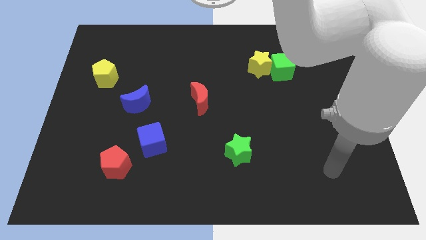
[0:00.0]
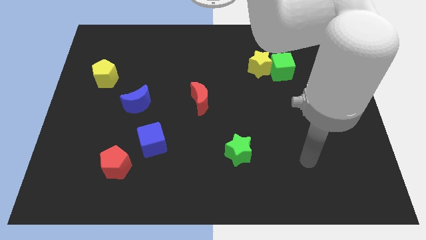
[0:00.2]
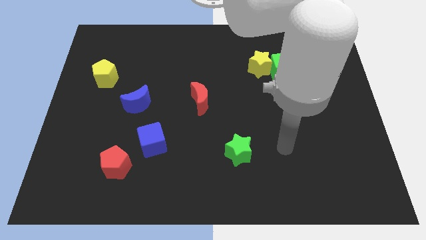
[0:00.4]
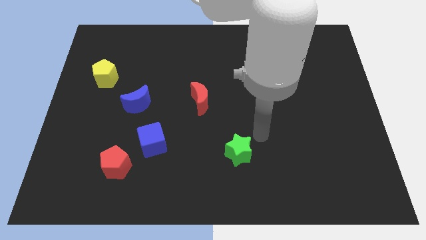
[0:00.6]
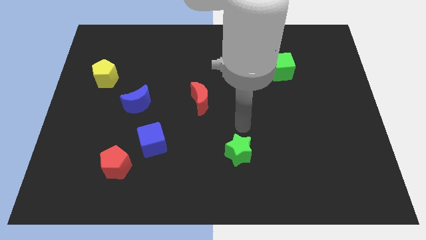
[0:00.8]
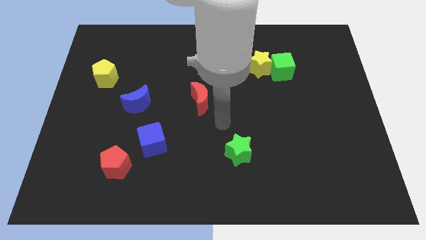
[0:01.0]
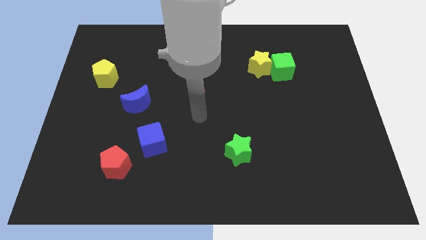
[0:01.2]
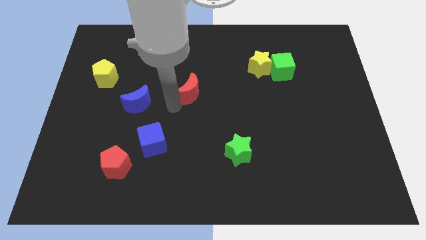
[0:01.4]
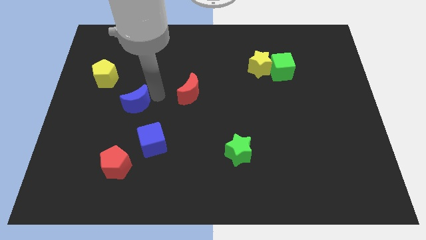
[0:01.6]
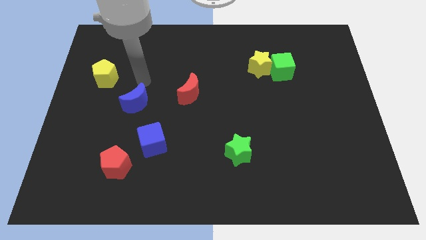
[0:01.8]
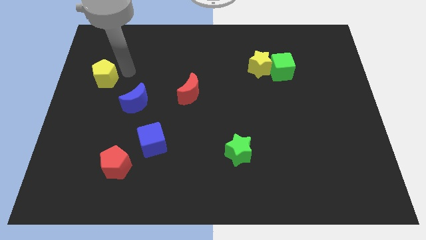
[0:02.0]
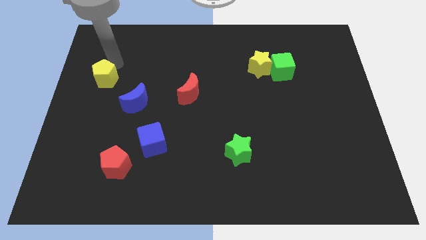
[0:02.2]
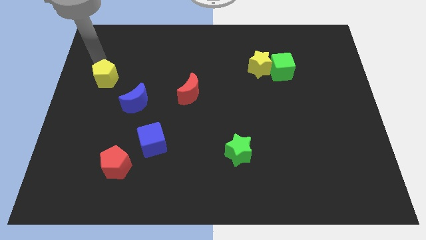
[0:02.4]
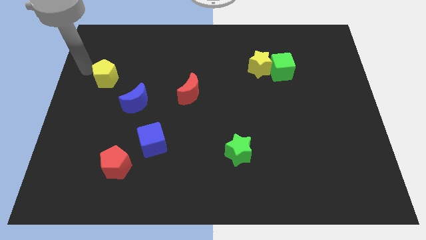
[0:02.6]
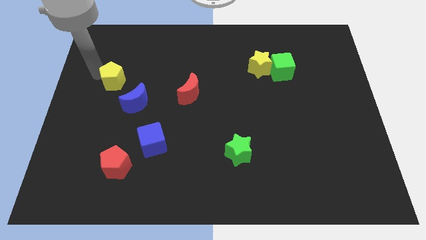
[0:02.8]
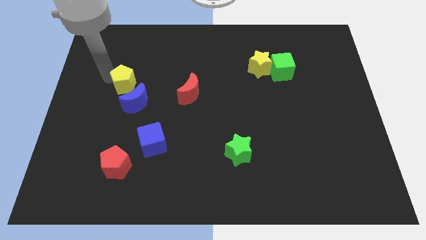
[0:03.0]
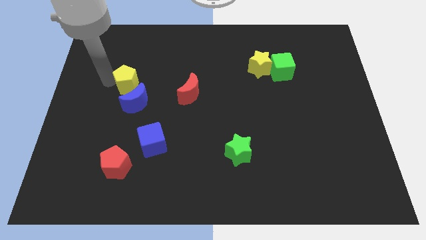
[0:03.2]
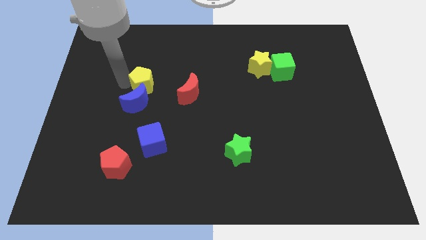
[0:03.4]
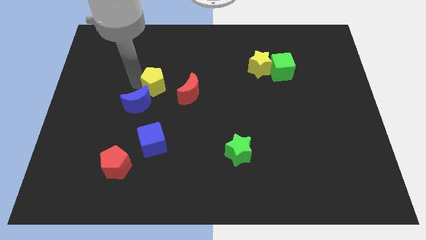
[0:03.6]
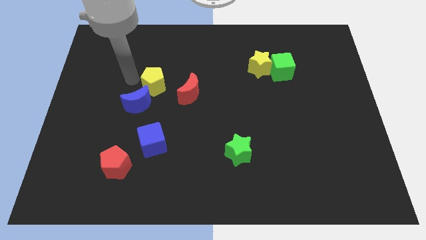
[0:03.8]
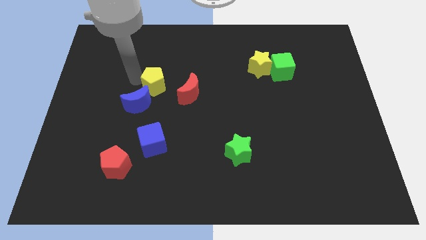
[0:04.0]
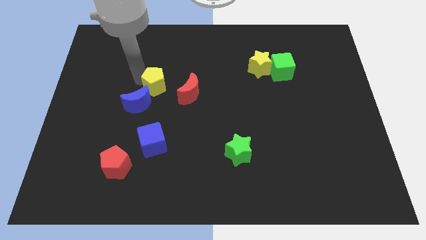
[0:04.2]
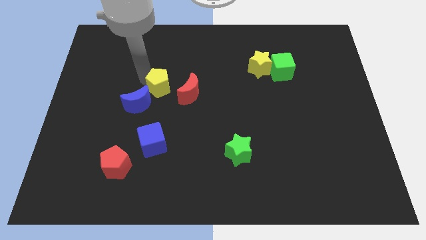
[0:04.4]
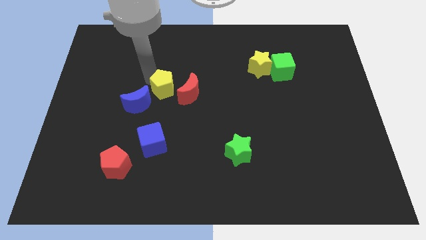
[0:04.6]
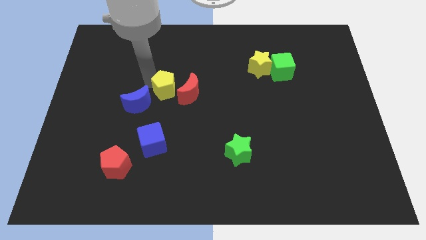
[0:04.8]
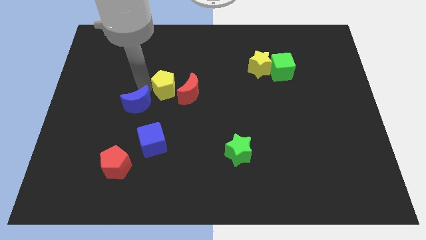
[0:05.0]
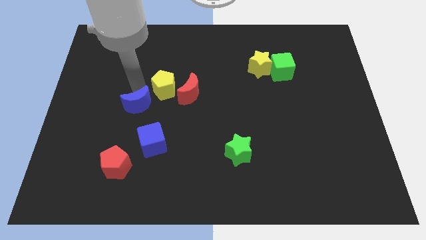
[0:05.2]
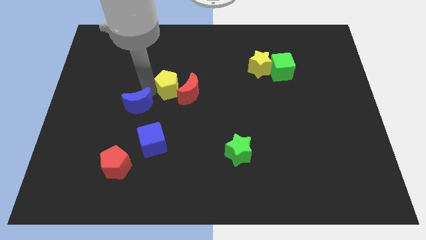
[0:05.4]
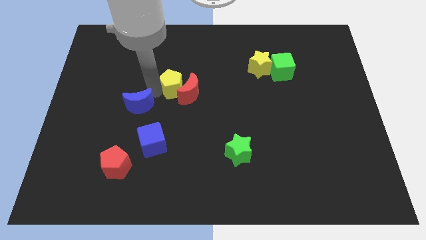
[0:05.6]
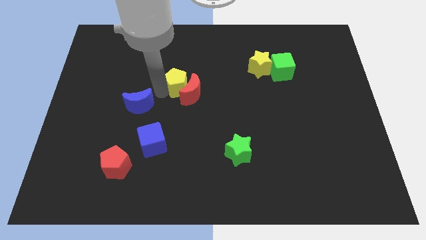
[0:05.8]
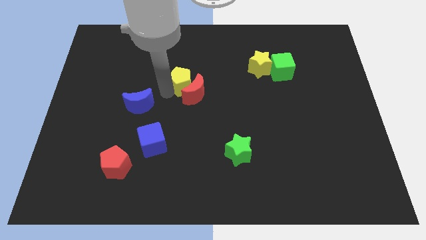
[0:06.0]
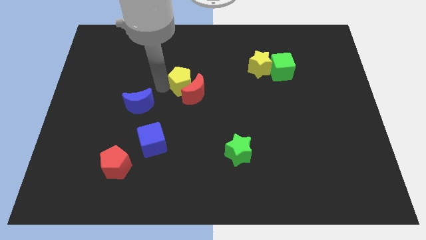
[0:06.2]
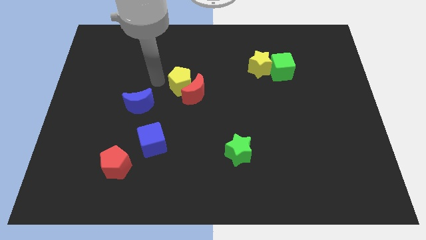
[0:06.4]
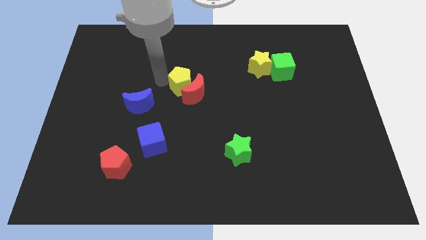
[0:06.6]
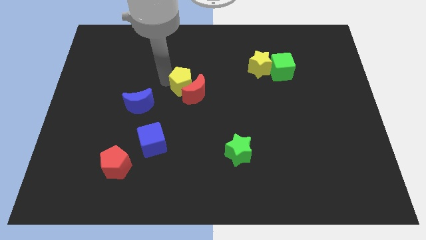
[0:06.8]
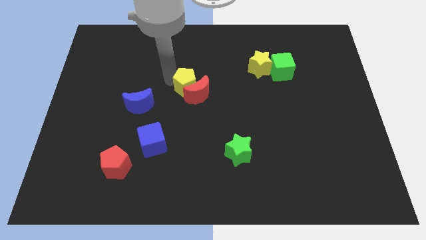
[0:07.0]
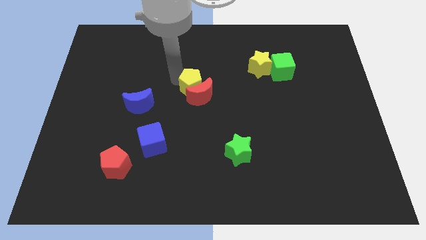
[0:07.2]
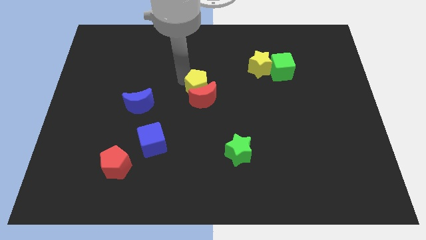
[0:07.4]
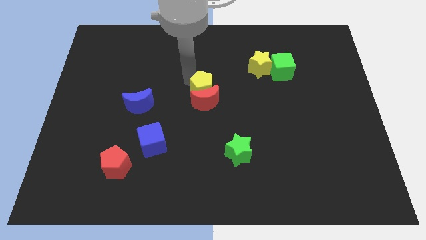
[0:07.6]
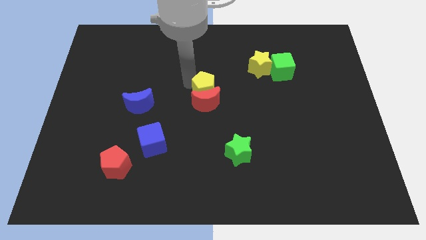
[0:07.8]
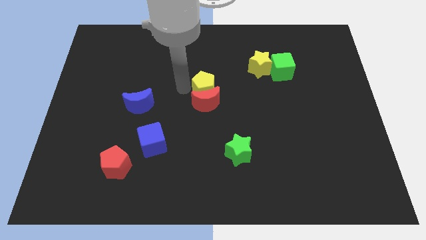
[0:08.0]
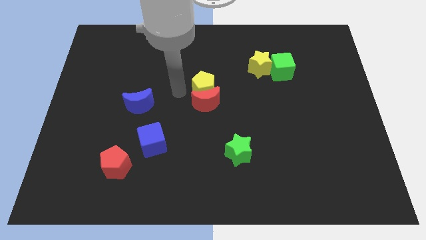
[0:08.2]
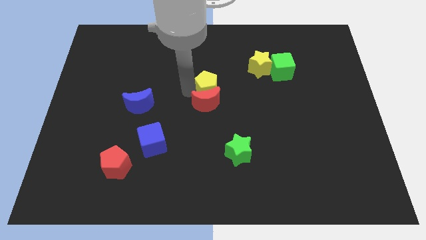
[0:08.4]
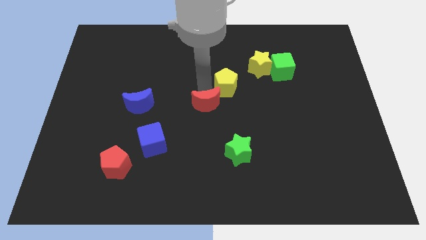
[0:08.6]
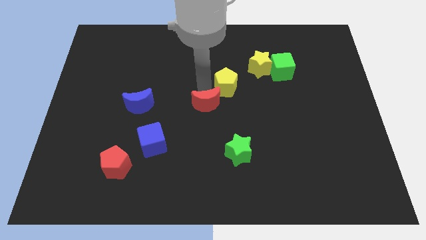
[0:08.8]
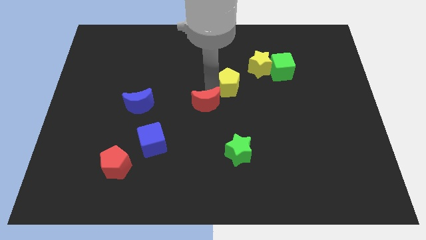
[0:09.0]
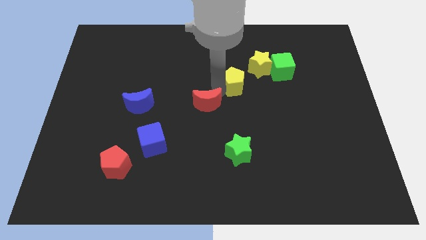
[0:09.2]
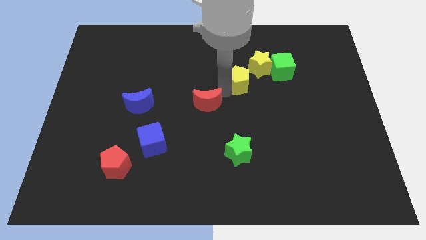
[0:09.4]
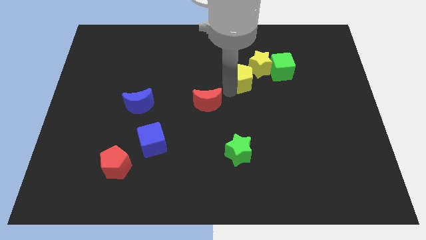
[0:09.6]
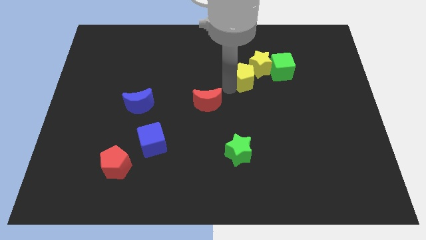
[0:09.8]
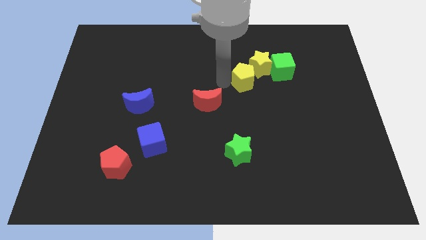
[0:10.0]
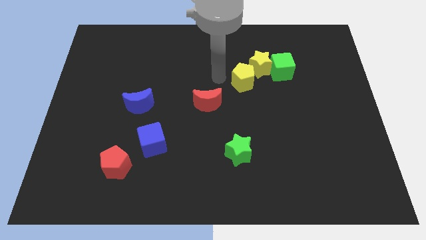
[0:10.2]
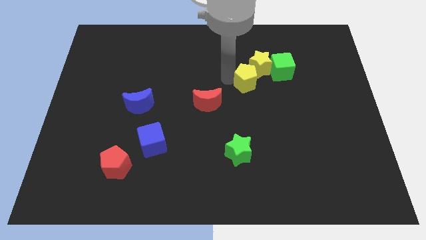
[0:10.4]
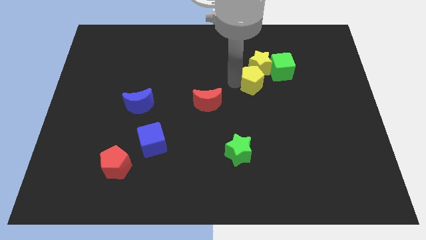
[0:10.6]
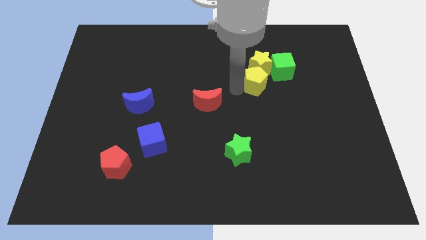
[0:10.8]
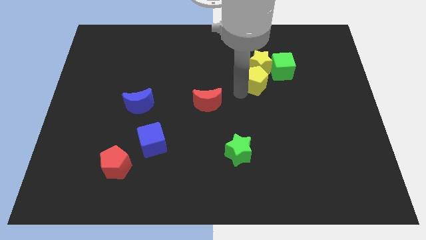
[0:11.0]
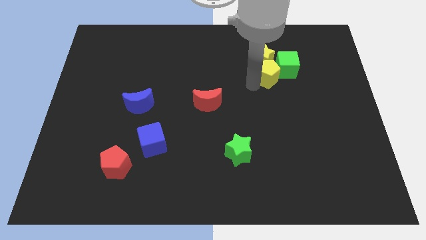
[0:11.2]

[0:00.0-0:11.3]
slide the yellow pentagon close to the green cube

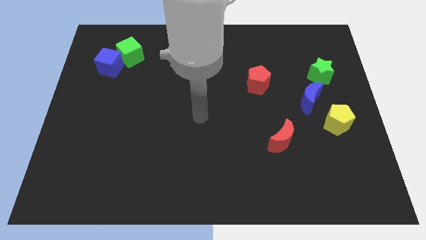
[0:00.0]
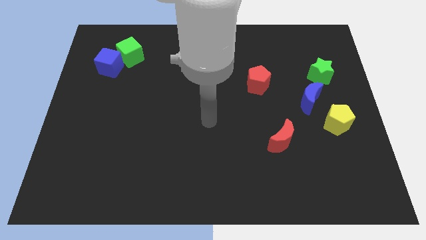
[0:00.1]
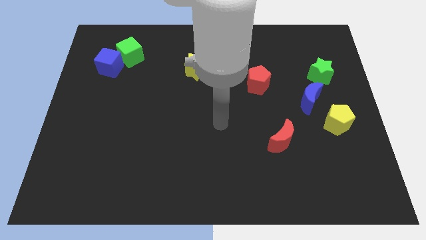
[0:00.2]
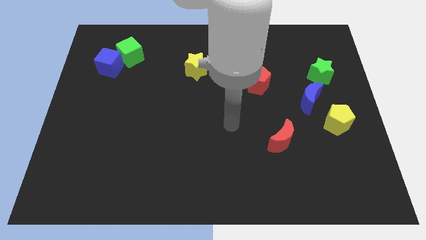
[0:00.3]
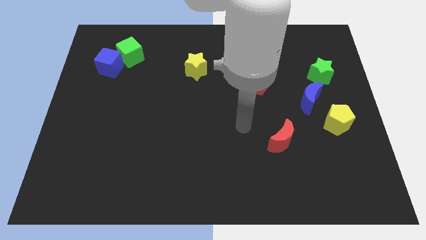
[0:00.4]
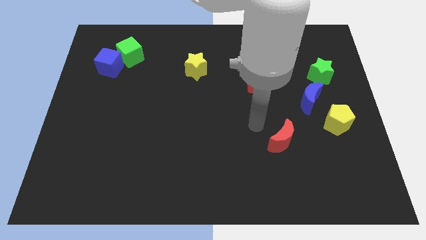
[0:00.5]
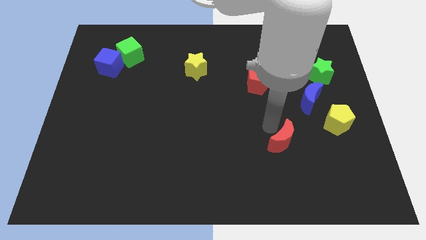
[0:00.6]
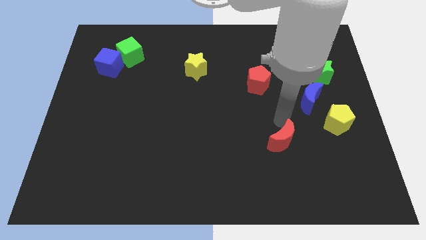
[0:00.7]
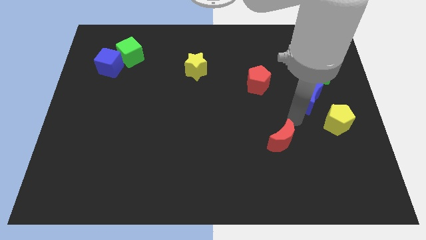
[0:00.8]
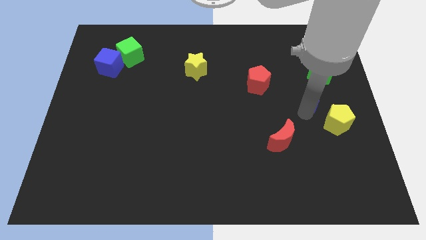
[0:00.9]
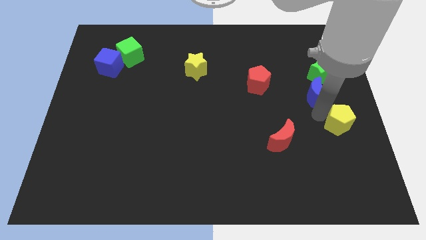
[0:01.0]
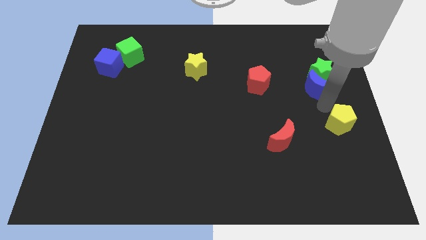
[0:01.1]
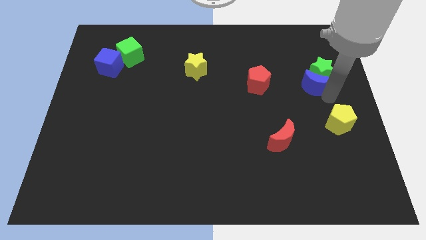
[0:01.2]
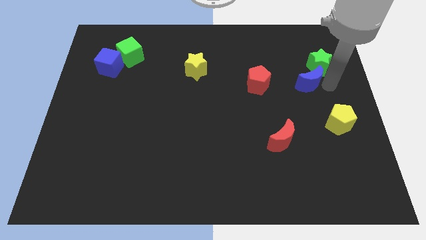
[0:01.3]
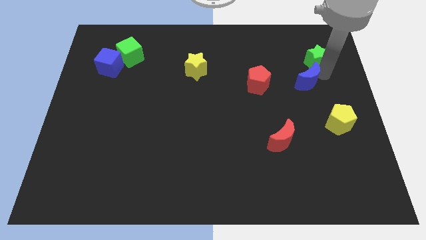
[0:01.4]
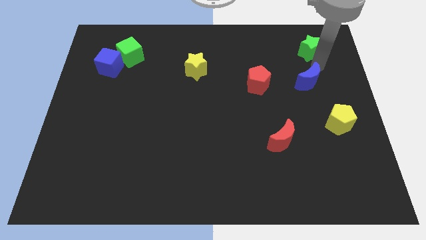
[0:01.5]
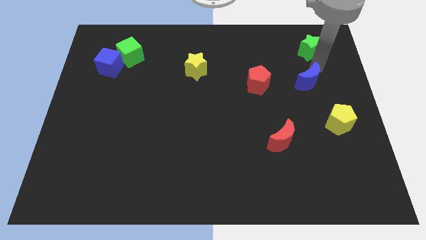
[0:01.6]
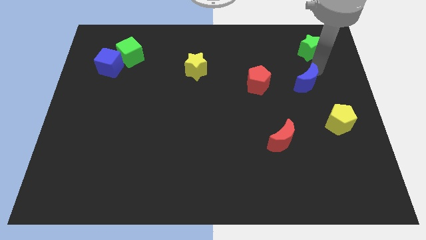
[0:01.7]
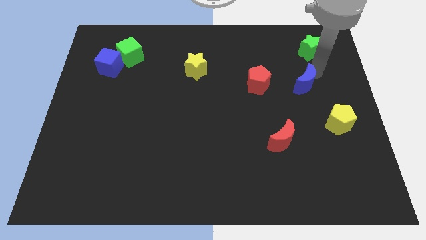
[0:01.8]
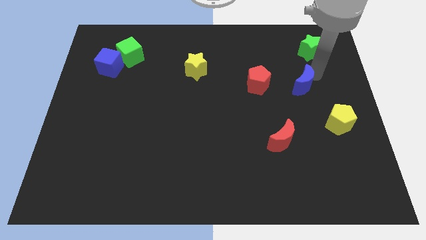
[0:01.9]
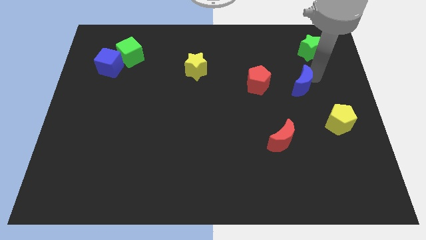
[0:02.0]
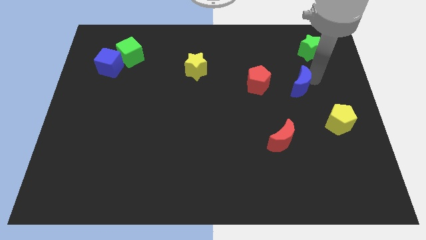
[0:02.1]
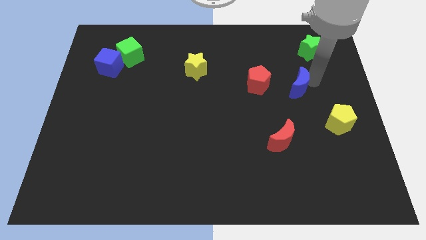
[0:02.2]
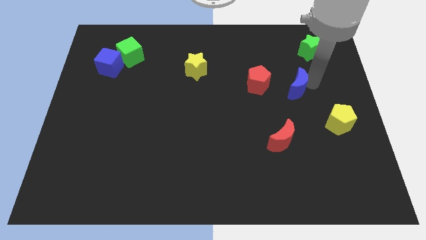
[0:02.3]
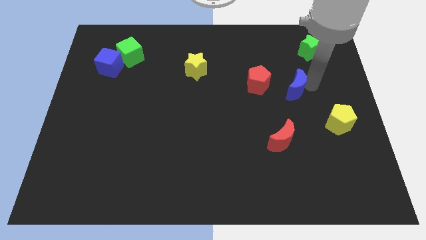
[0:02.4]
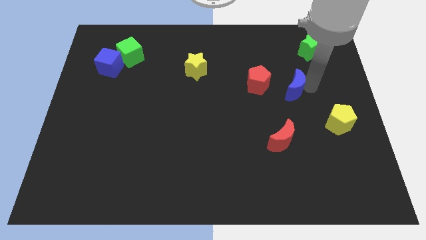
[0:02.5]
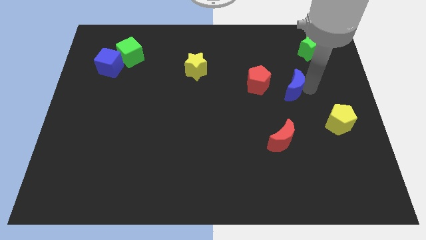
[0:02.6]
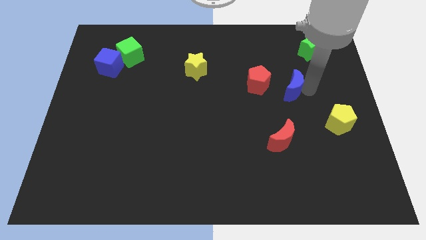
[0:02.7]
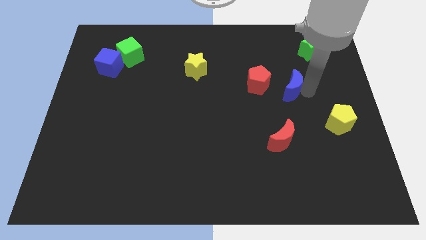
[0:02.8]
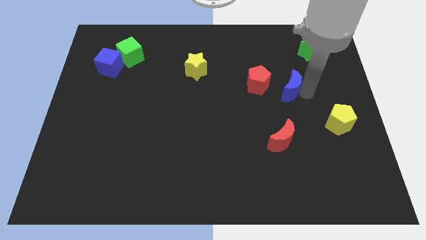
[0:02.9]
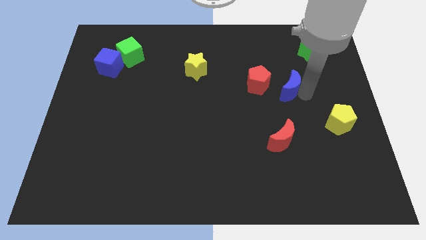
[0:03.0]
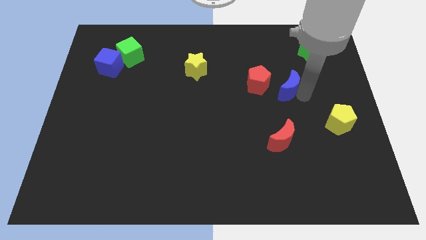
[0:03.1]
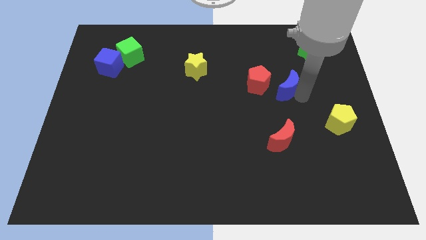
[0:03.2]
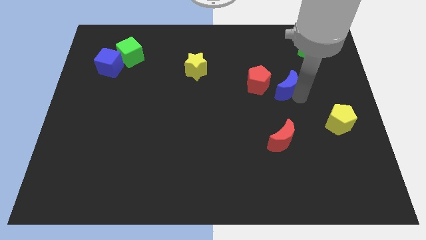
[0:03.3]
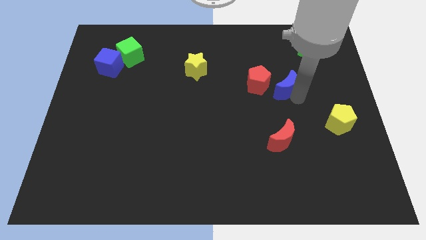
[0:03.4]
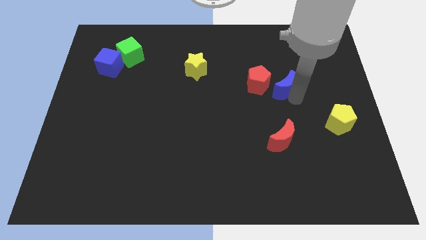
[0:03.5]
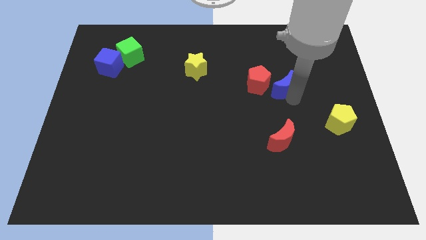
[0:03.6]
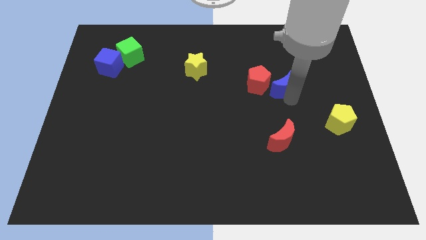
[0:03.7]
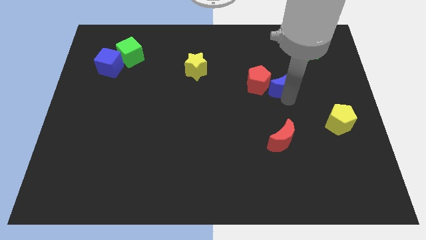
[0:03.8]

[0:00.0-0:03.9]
put the blue moon close to the red pentagon
